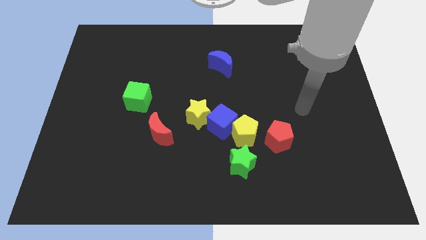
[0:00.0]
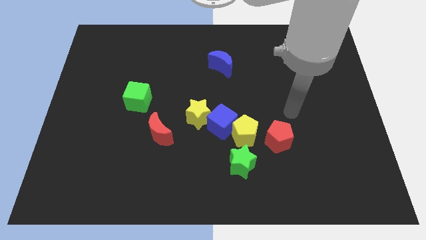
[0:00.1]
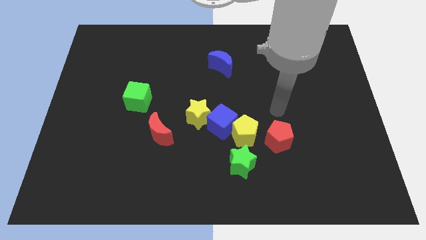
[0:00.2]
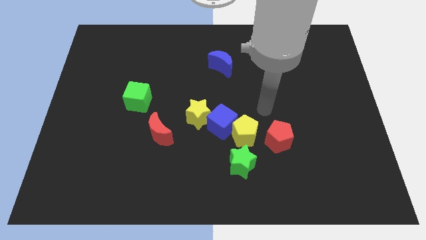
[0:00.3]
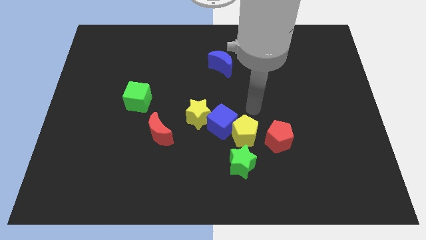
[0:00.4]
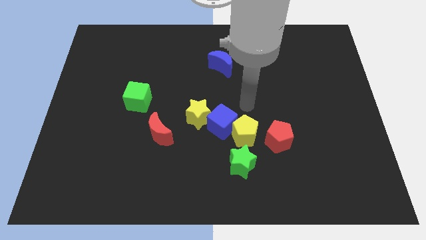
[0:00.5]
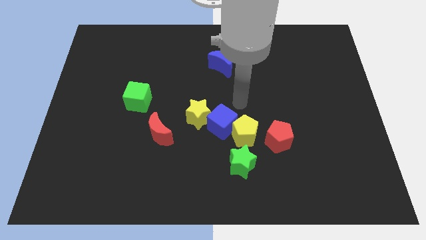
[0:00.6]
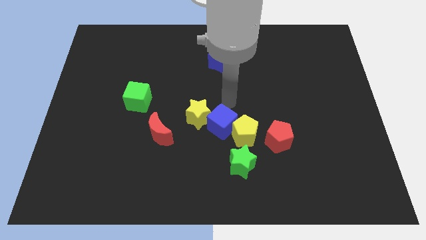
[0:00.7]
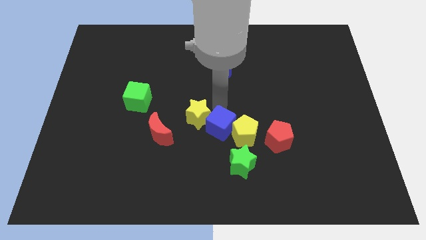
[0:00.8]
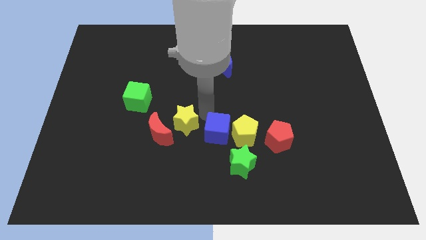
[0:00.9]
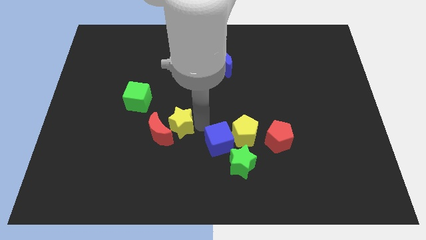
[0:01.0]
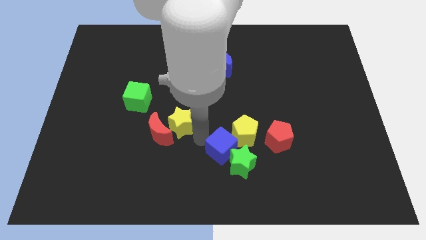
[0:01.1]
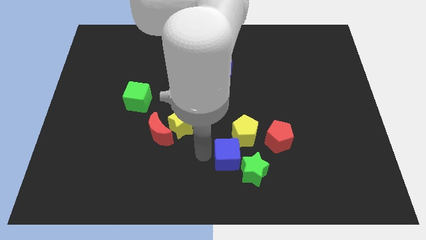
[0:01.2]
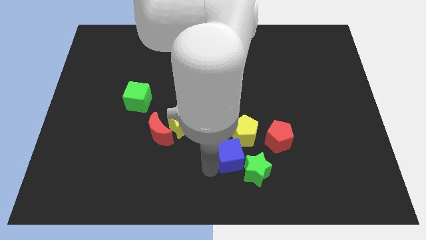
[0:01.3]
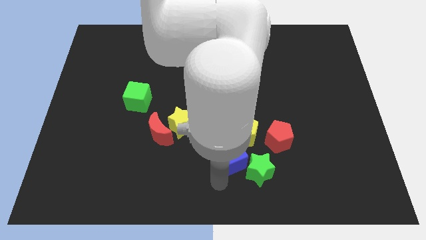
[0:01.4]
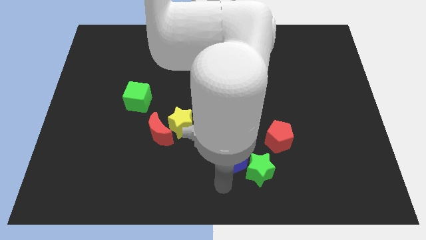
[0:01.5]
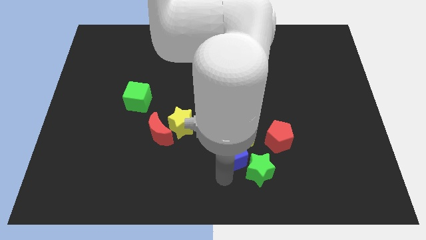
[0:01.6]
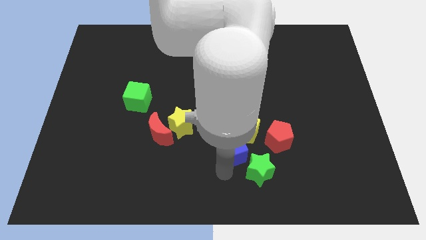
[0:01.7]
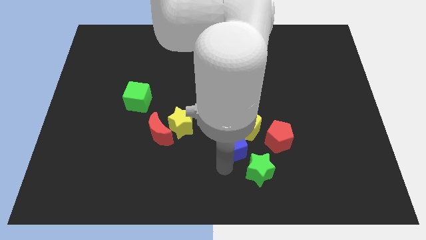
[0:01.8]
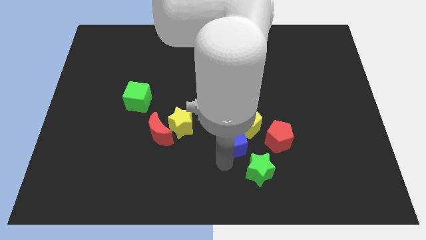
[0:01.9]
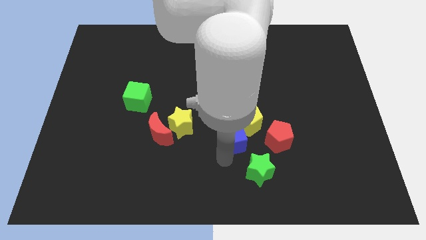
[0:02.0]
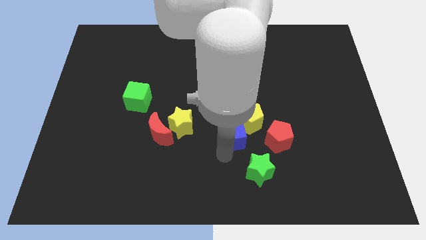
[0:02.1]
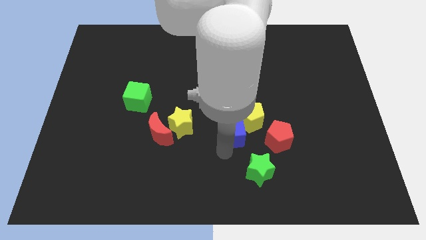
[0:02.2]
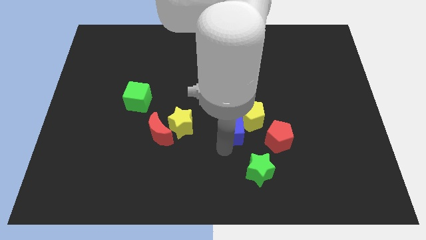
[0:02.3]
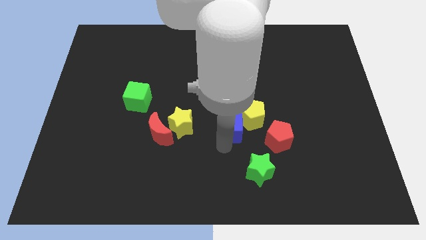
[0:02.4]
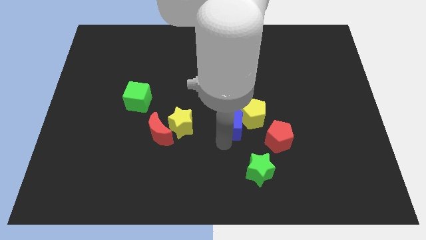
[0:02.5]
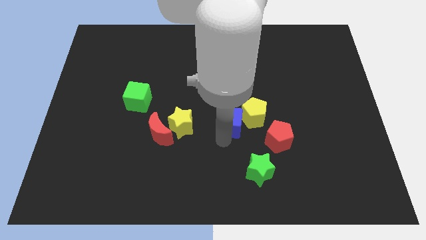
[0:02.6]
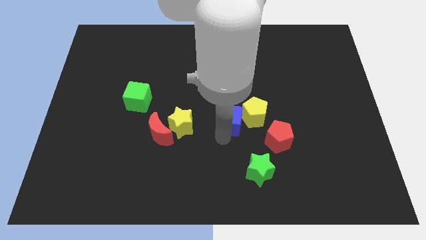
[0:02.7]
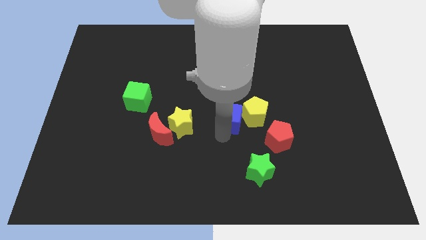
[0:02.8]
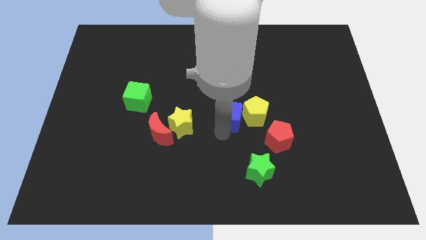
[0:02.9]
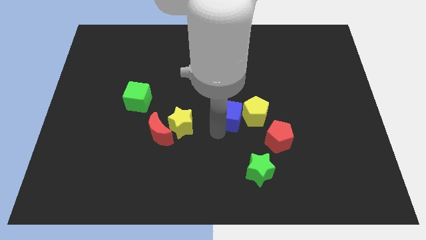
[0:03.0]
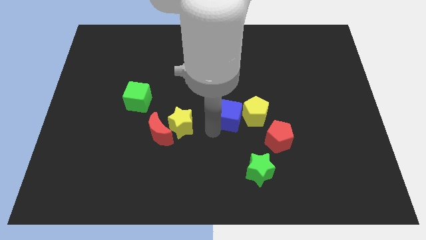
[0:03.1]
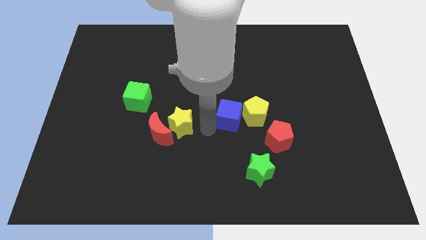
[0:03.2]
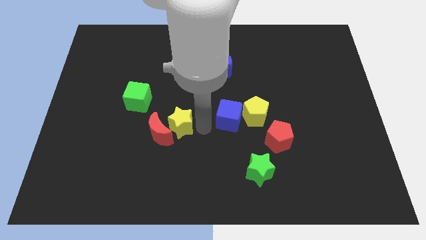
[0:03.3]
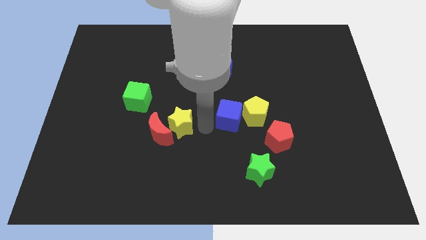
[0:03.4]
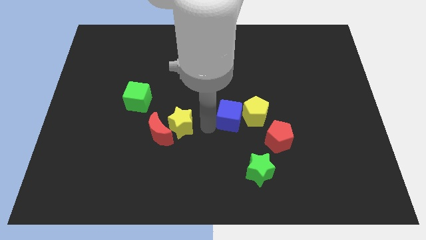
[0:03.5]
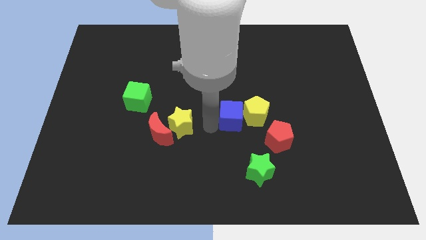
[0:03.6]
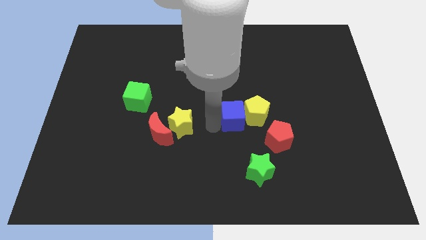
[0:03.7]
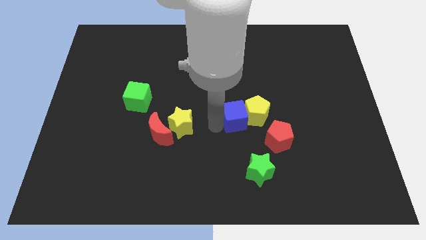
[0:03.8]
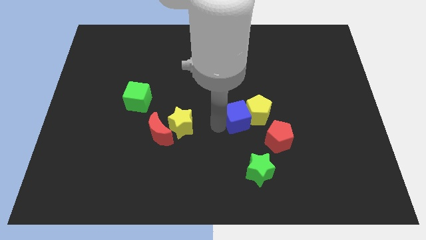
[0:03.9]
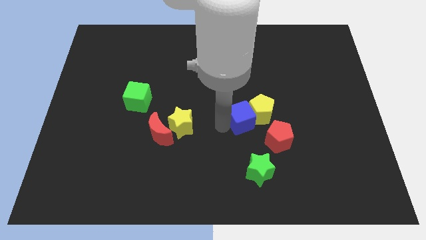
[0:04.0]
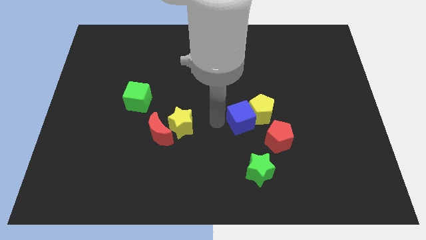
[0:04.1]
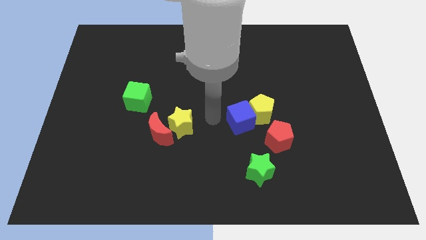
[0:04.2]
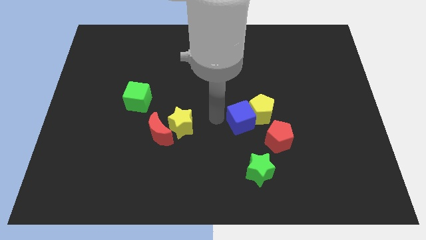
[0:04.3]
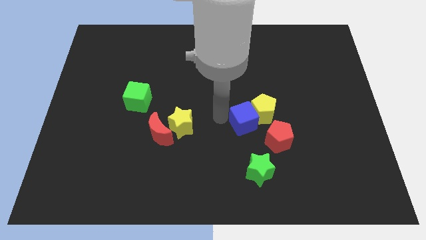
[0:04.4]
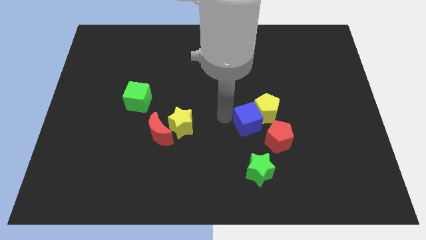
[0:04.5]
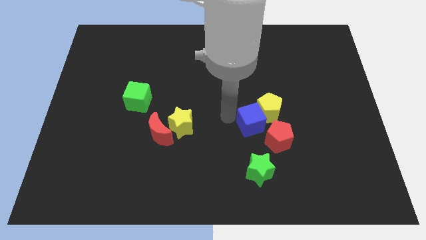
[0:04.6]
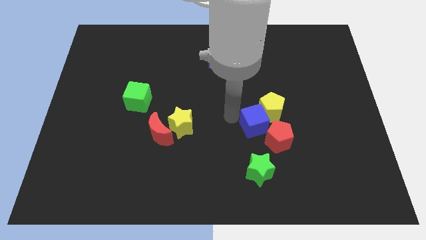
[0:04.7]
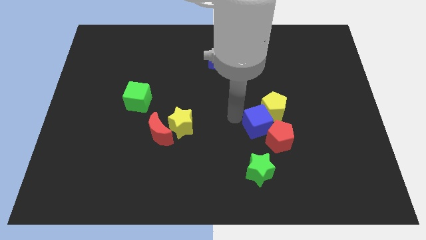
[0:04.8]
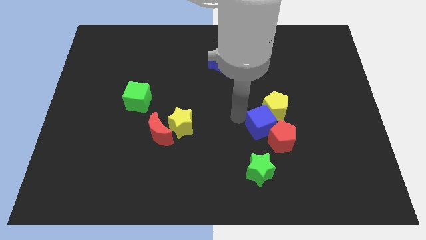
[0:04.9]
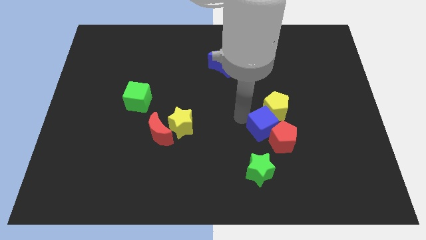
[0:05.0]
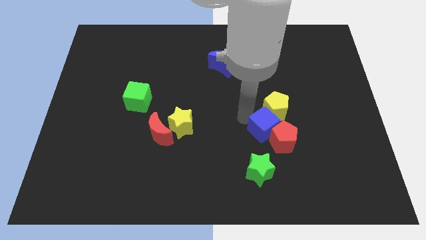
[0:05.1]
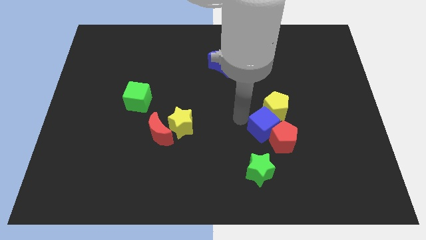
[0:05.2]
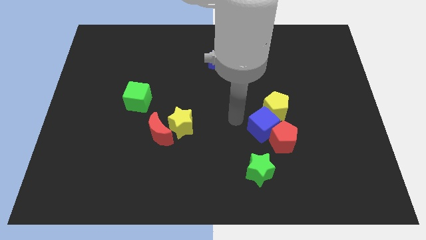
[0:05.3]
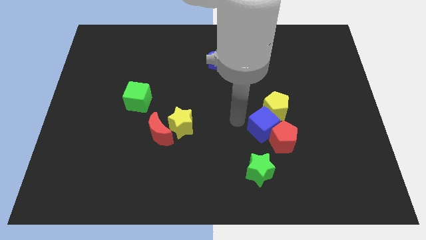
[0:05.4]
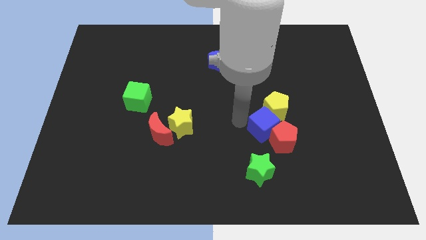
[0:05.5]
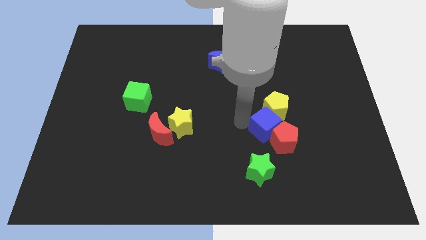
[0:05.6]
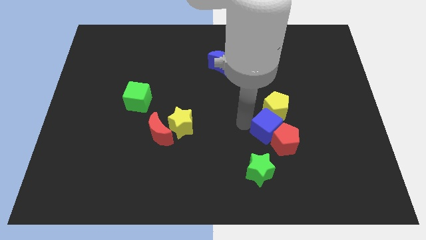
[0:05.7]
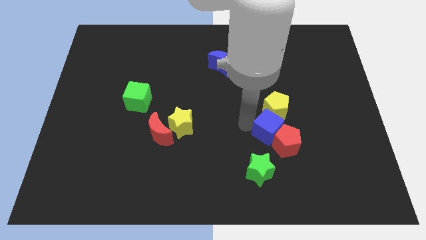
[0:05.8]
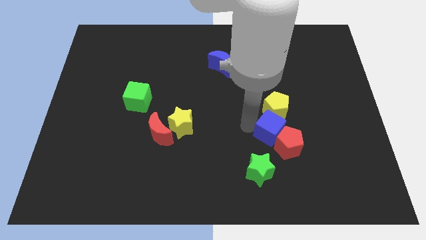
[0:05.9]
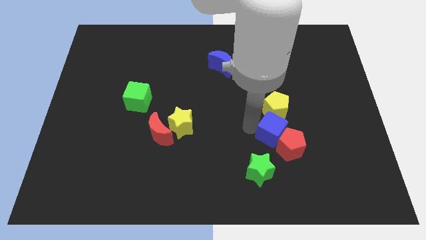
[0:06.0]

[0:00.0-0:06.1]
move the blue cube away from the yellow pentagon and yellow star

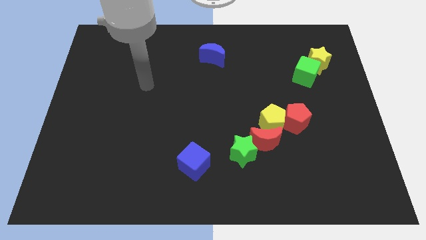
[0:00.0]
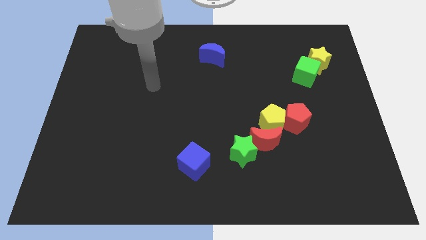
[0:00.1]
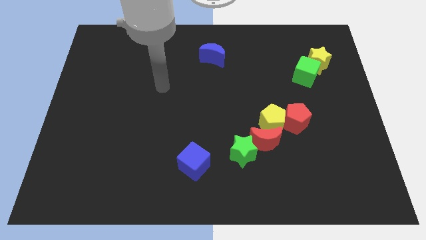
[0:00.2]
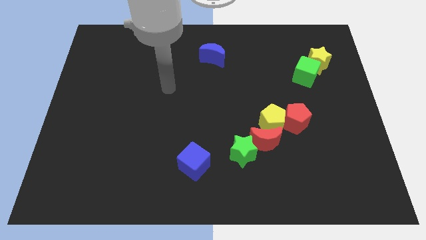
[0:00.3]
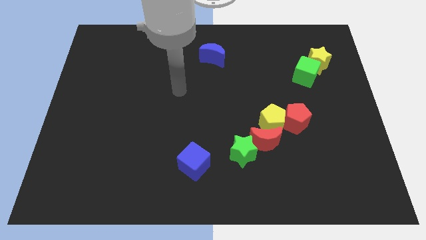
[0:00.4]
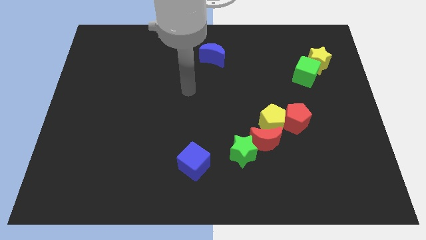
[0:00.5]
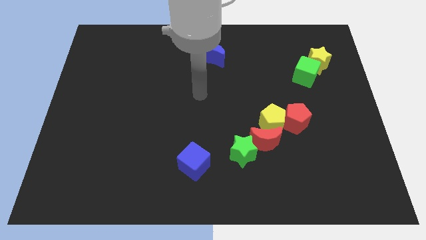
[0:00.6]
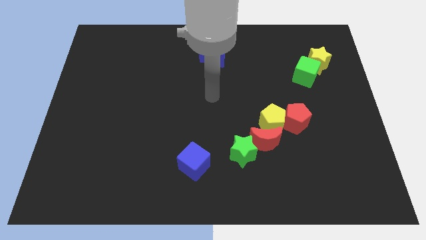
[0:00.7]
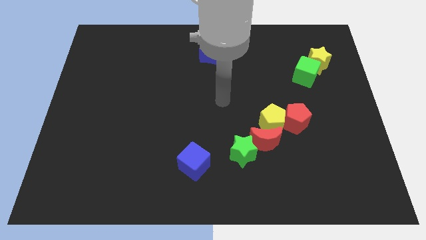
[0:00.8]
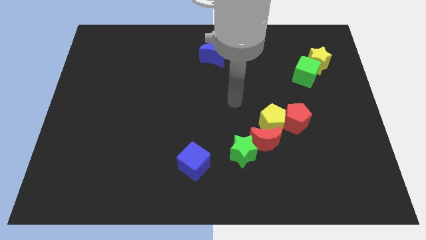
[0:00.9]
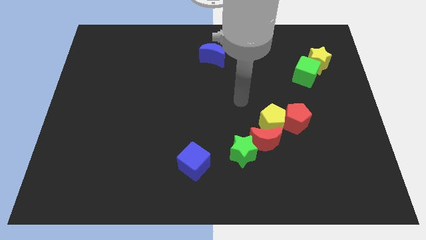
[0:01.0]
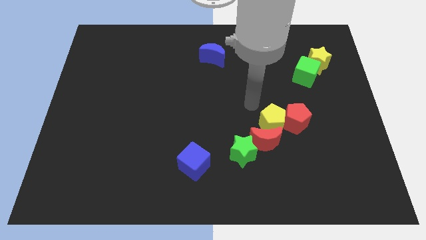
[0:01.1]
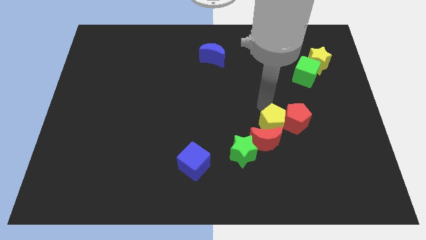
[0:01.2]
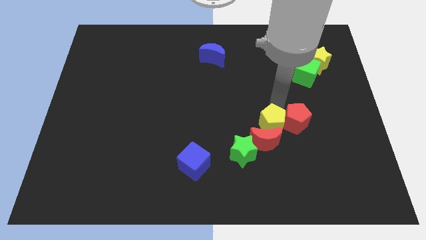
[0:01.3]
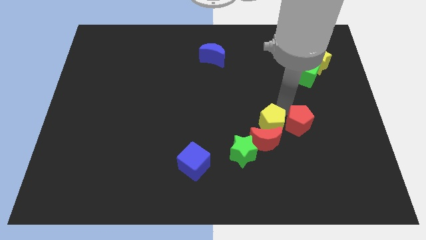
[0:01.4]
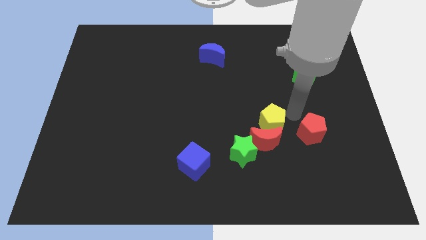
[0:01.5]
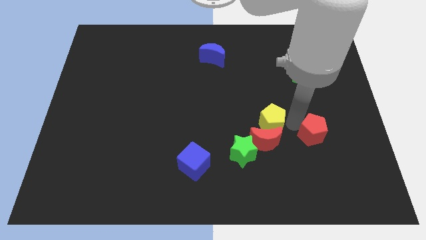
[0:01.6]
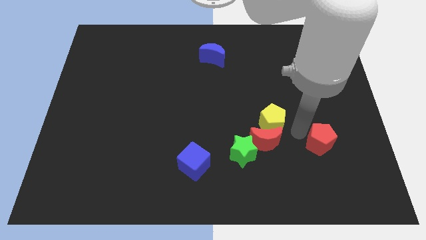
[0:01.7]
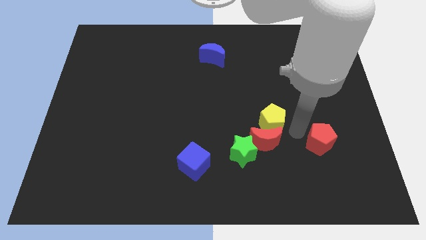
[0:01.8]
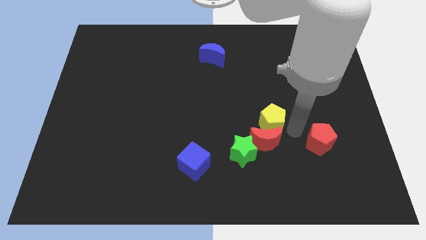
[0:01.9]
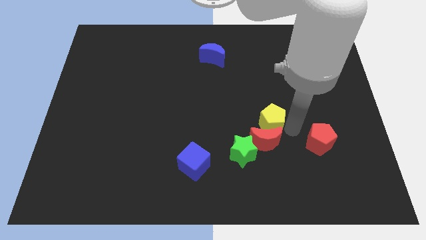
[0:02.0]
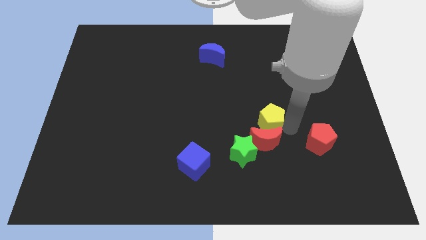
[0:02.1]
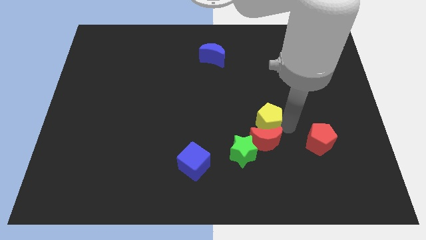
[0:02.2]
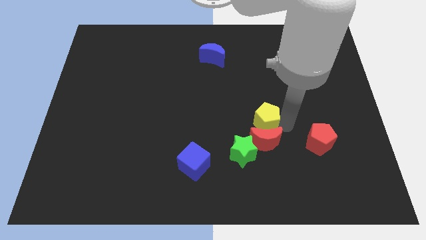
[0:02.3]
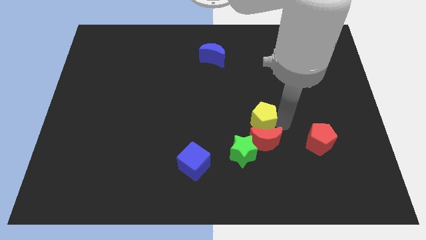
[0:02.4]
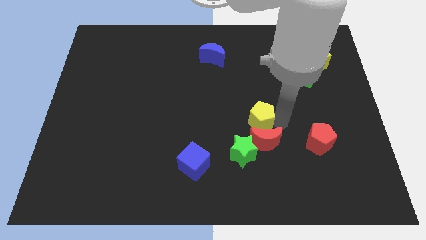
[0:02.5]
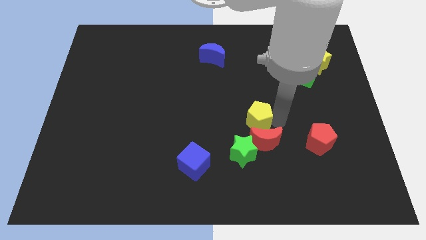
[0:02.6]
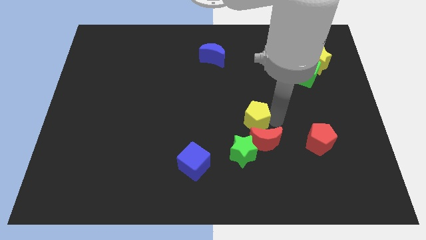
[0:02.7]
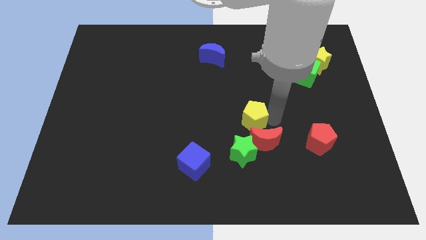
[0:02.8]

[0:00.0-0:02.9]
pull the yellow pentagon apart from the red moon and red pentagon

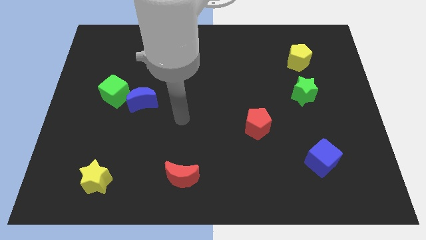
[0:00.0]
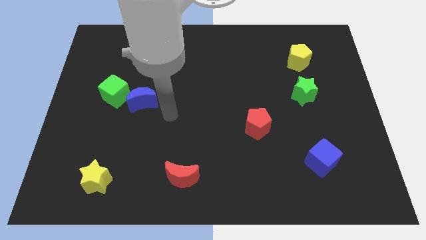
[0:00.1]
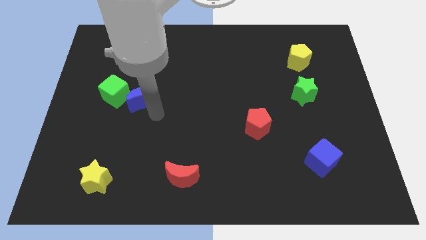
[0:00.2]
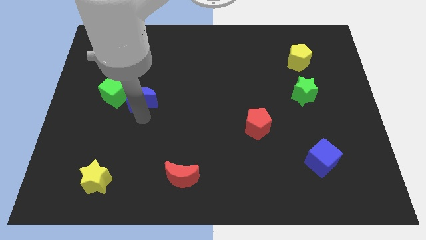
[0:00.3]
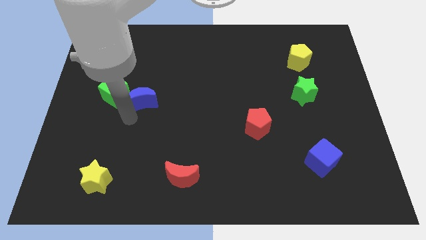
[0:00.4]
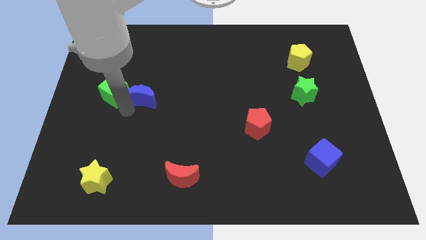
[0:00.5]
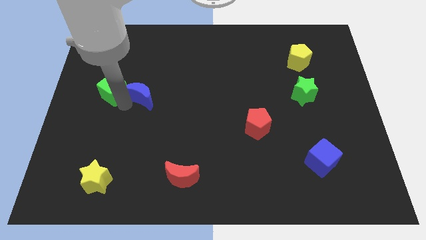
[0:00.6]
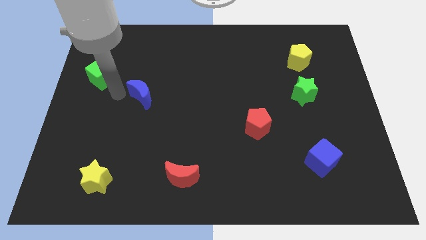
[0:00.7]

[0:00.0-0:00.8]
pull the blue moon apart from the green cube
